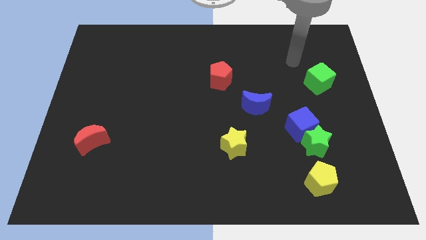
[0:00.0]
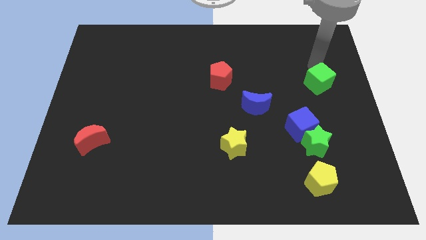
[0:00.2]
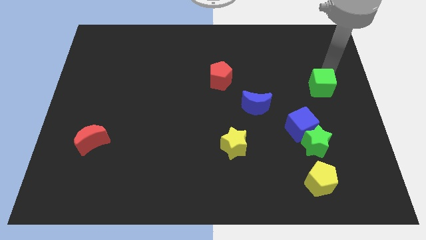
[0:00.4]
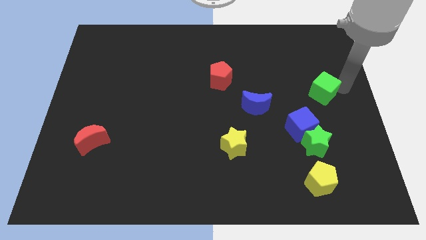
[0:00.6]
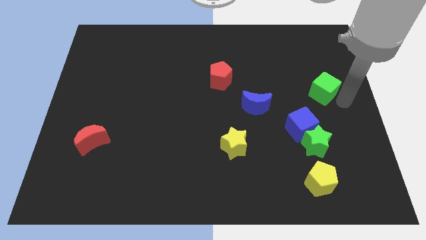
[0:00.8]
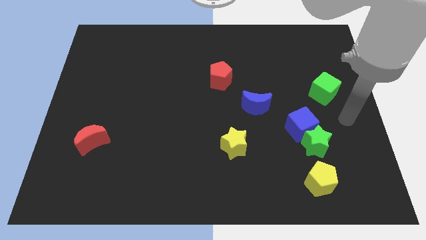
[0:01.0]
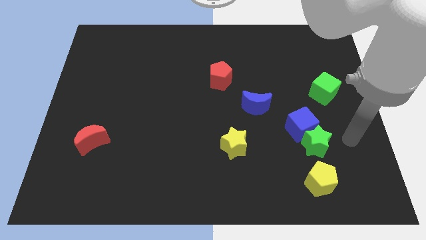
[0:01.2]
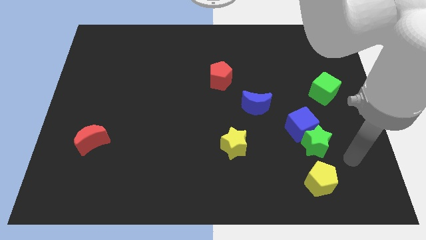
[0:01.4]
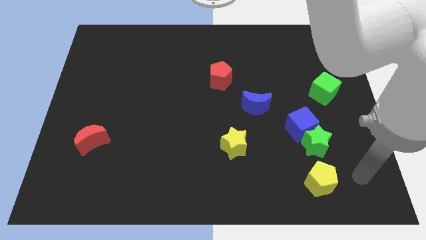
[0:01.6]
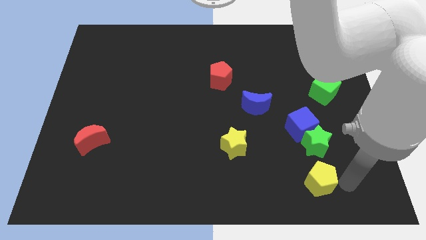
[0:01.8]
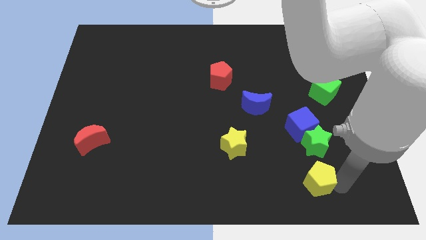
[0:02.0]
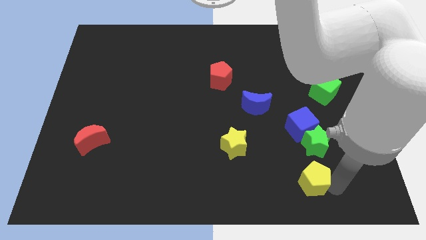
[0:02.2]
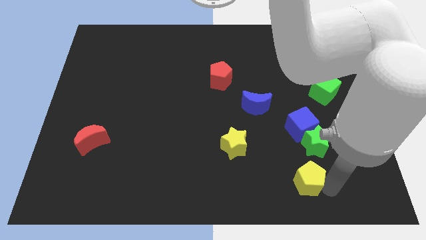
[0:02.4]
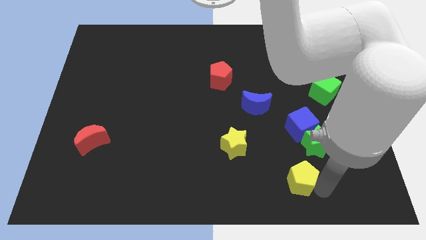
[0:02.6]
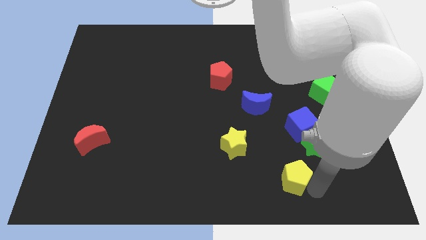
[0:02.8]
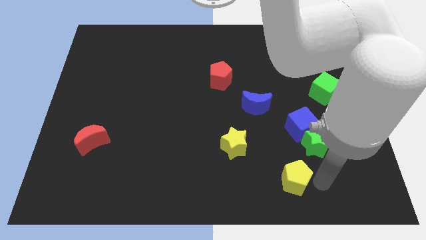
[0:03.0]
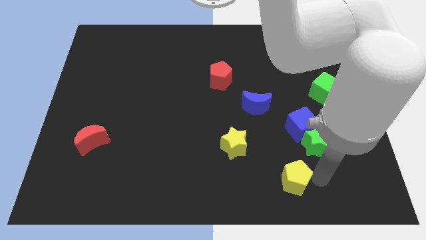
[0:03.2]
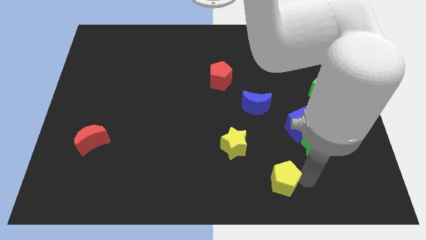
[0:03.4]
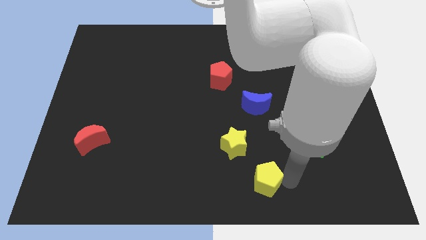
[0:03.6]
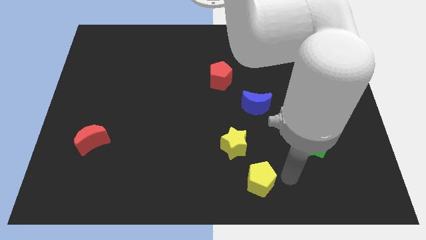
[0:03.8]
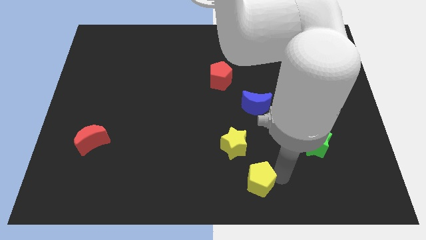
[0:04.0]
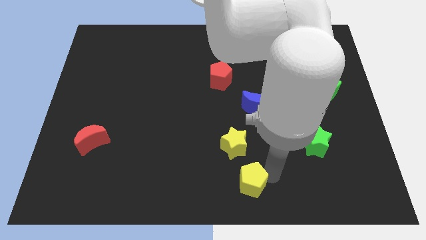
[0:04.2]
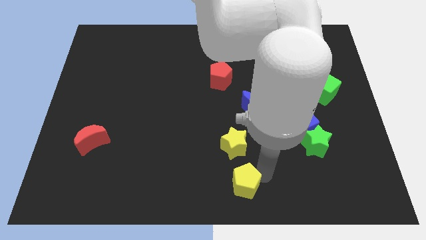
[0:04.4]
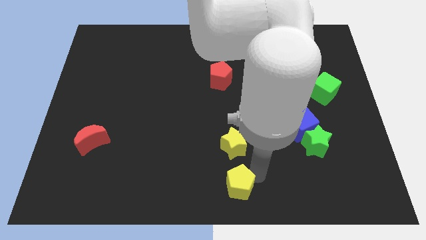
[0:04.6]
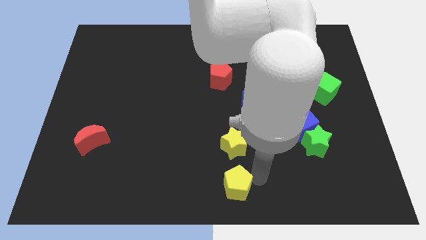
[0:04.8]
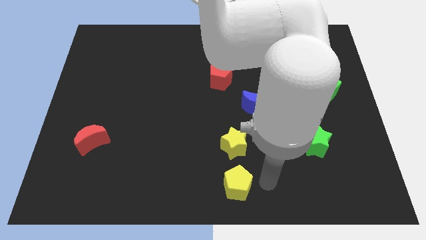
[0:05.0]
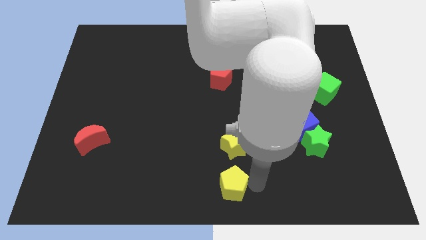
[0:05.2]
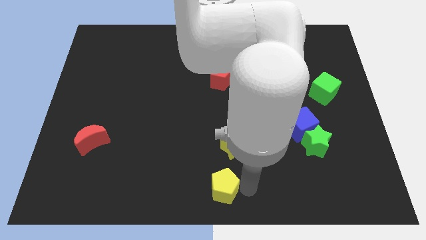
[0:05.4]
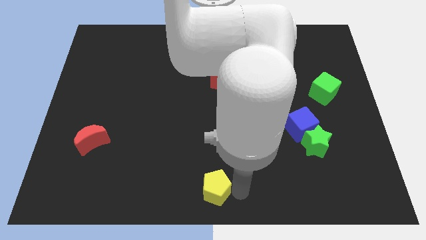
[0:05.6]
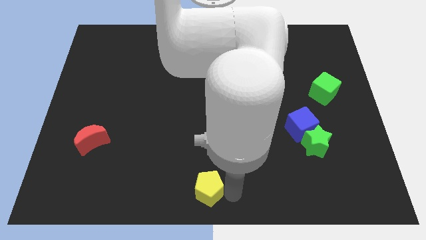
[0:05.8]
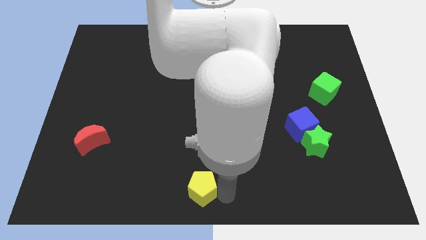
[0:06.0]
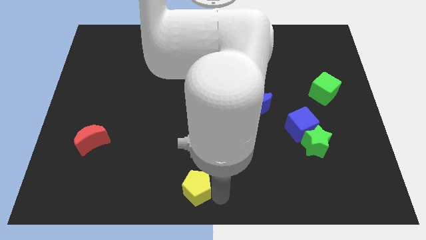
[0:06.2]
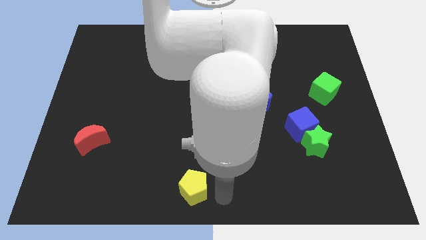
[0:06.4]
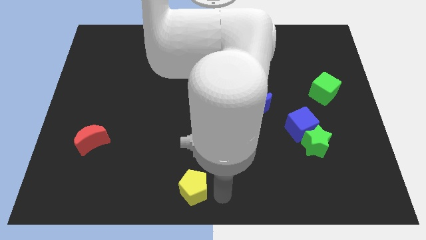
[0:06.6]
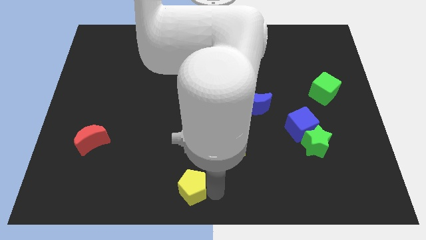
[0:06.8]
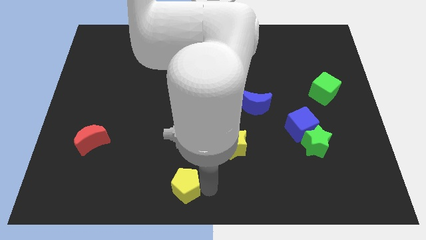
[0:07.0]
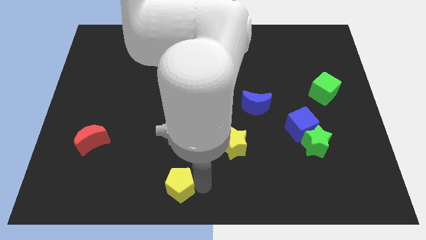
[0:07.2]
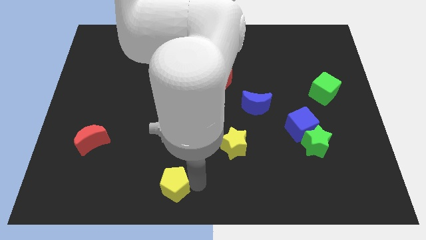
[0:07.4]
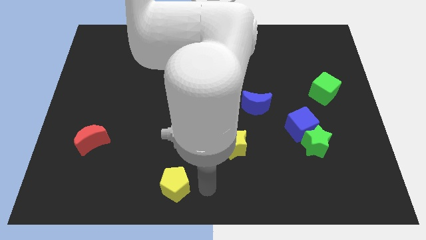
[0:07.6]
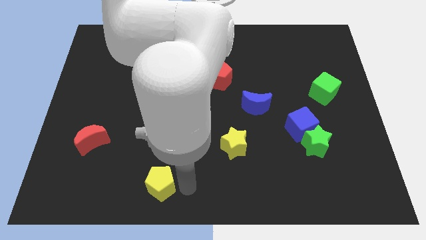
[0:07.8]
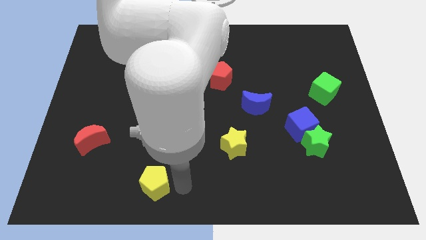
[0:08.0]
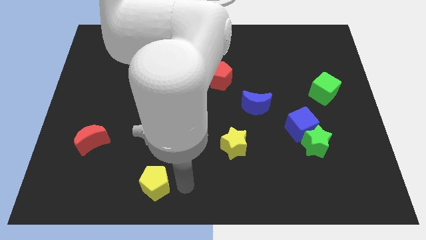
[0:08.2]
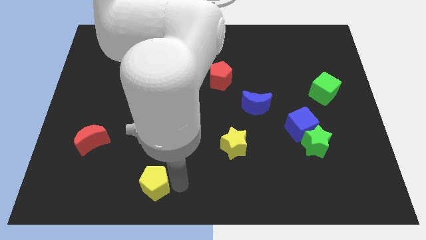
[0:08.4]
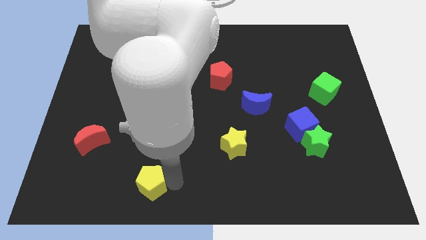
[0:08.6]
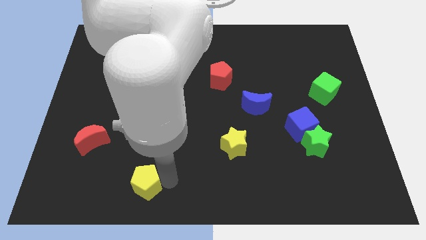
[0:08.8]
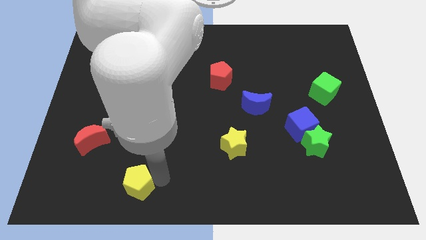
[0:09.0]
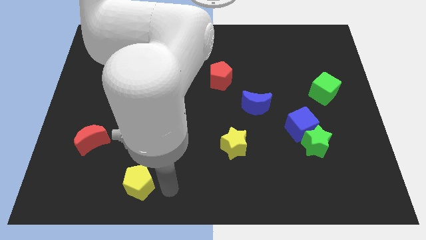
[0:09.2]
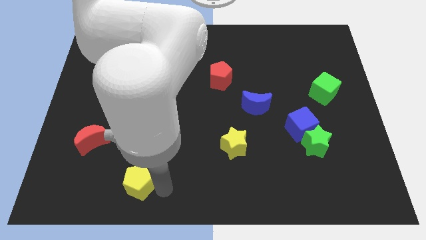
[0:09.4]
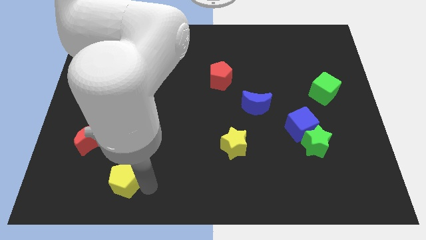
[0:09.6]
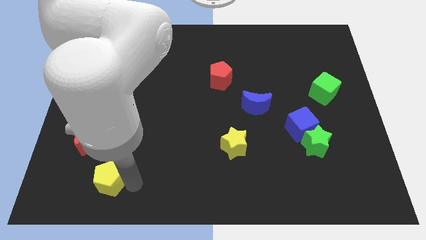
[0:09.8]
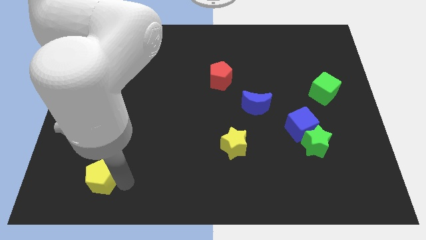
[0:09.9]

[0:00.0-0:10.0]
move the yellow pentagon to the bottom side of the red moon

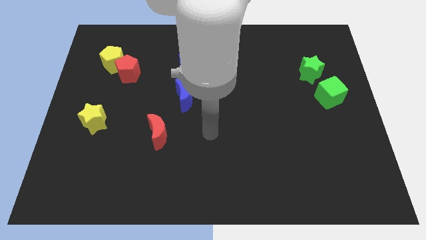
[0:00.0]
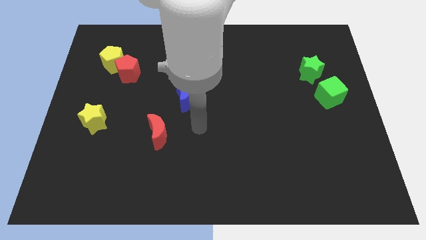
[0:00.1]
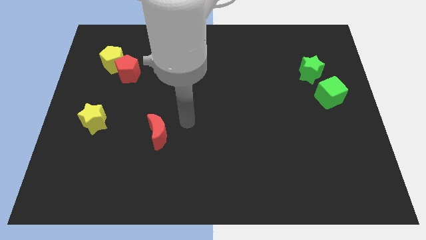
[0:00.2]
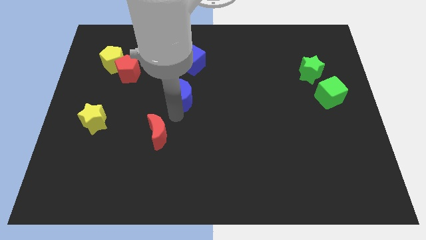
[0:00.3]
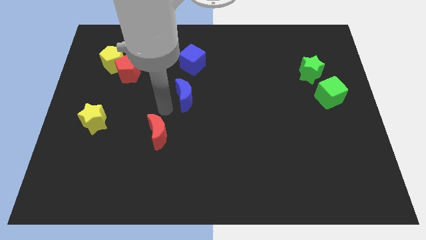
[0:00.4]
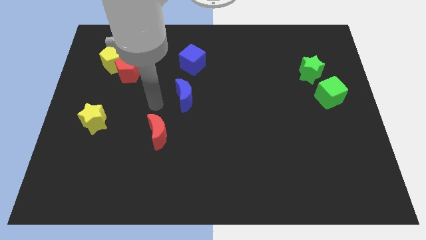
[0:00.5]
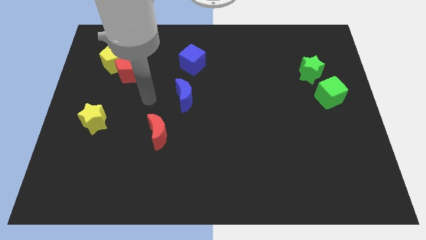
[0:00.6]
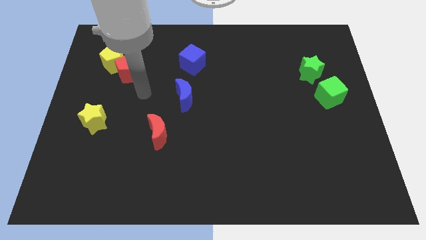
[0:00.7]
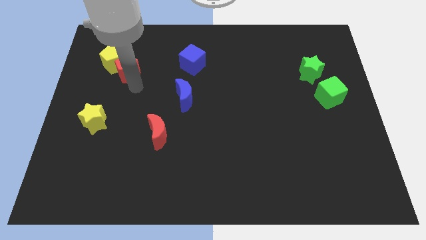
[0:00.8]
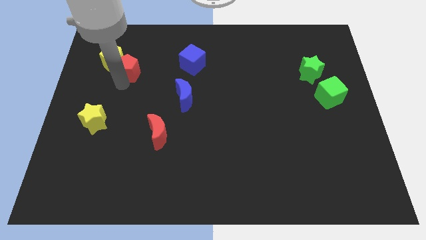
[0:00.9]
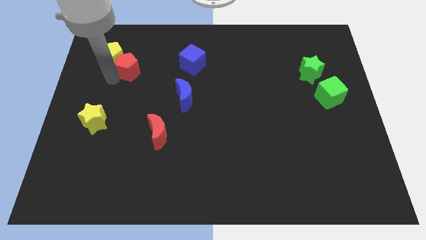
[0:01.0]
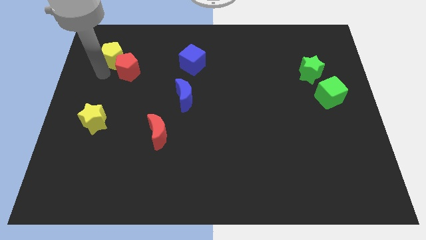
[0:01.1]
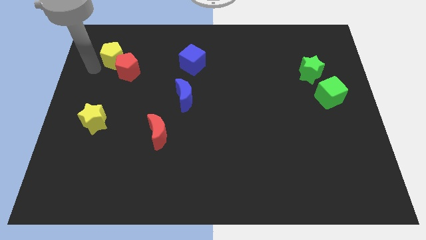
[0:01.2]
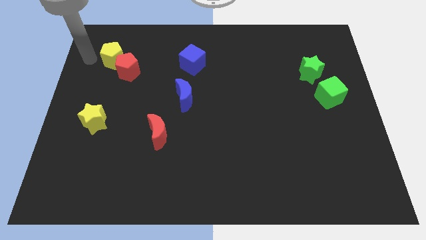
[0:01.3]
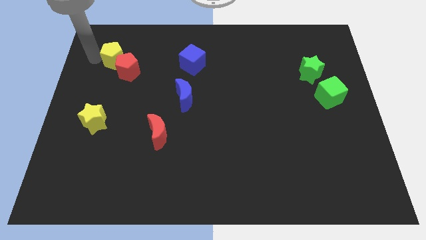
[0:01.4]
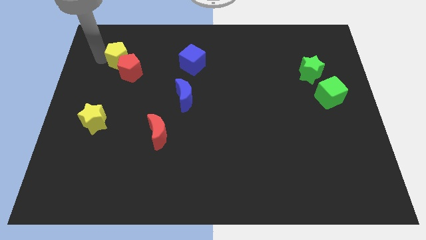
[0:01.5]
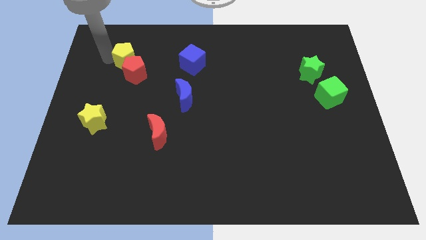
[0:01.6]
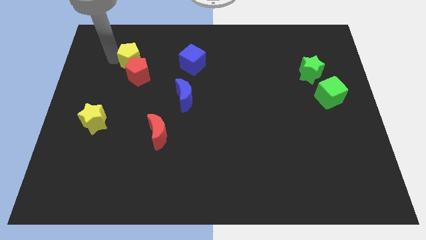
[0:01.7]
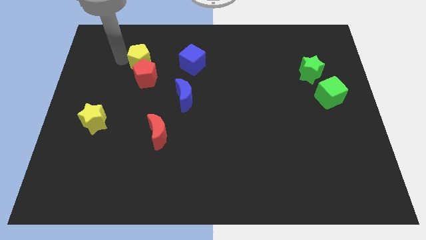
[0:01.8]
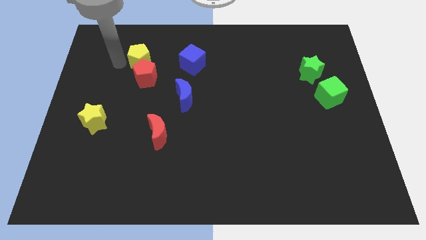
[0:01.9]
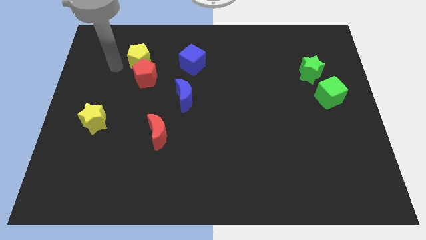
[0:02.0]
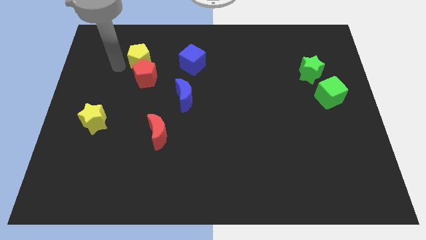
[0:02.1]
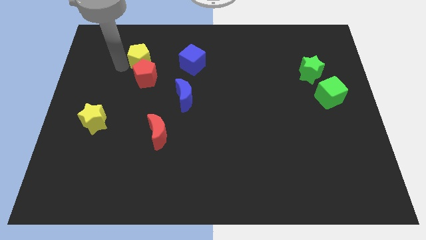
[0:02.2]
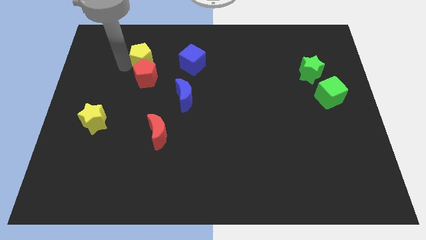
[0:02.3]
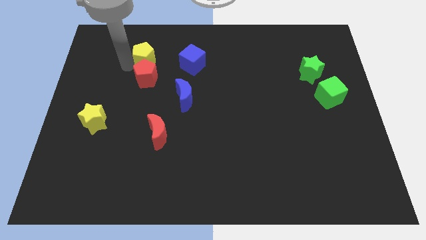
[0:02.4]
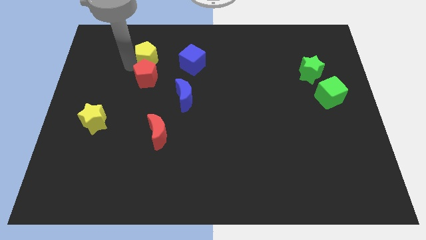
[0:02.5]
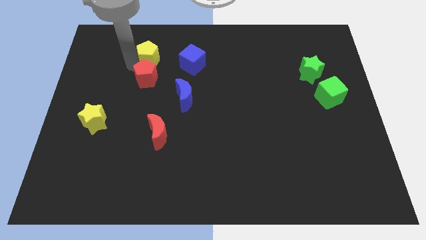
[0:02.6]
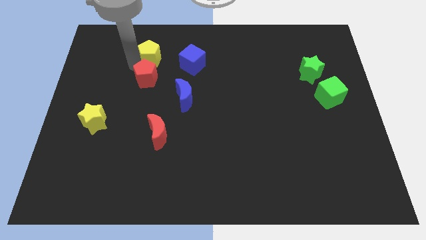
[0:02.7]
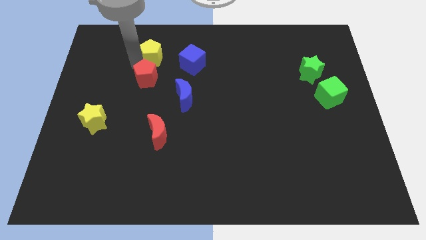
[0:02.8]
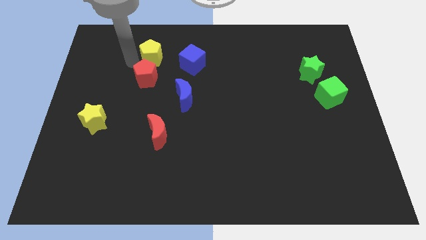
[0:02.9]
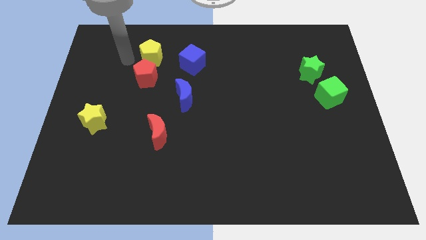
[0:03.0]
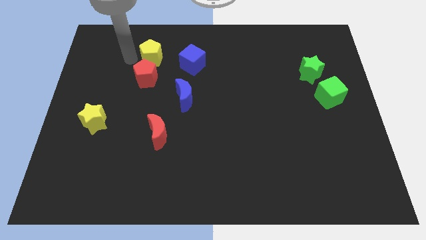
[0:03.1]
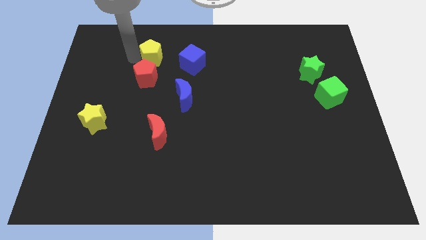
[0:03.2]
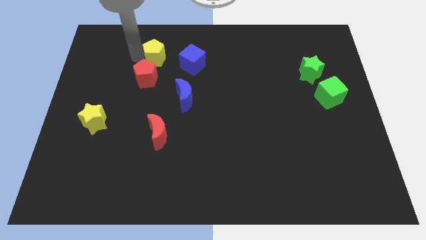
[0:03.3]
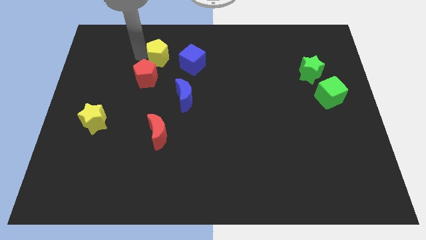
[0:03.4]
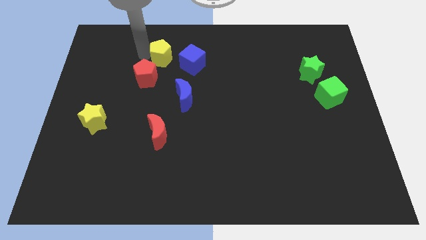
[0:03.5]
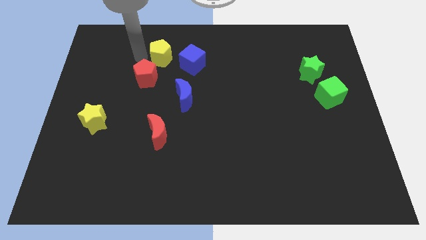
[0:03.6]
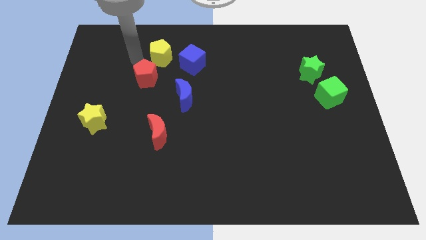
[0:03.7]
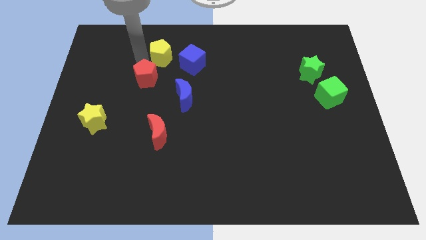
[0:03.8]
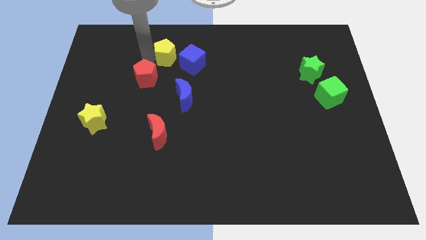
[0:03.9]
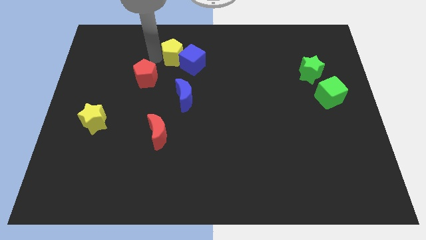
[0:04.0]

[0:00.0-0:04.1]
push the yellow pentagon to the top of the blue moon
